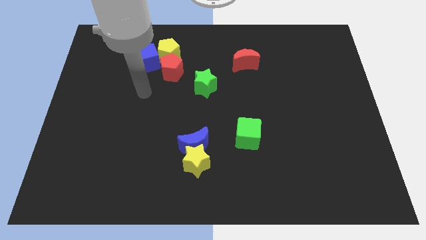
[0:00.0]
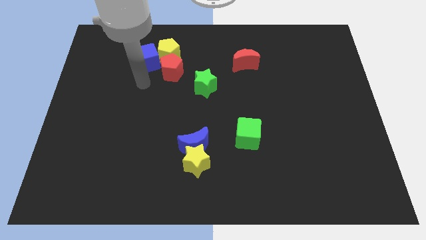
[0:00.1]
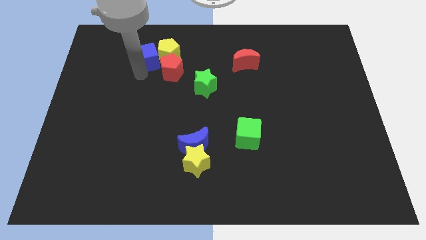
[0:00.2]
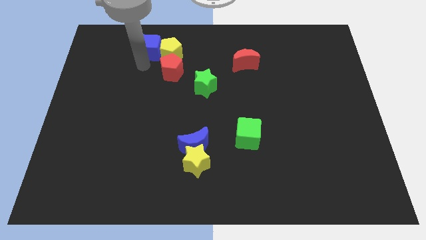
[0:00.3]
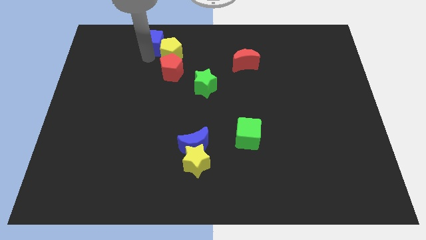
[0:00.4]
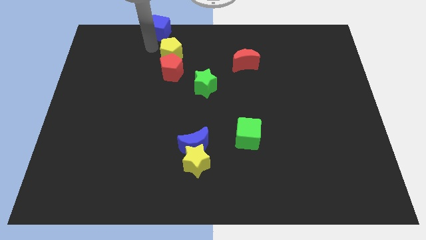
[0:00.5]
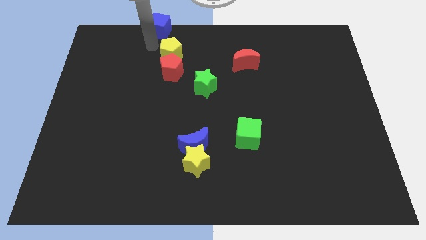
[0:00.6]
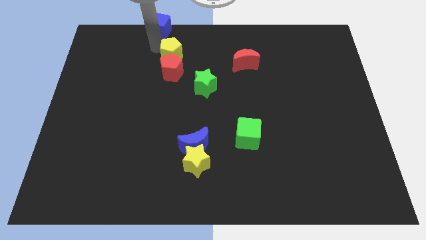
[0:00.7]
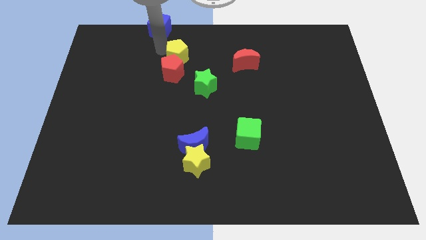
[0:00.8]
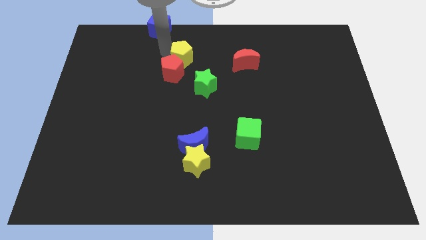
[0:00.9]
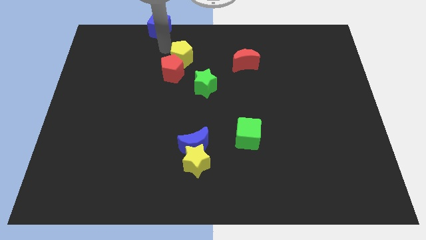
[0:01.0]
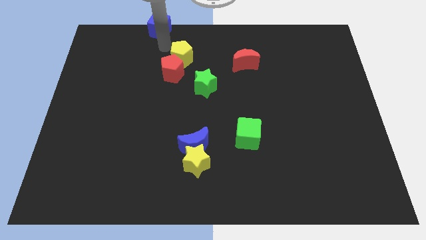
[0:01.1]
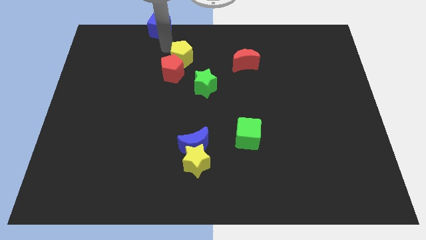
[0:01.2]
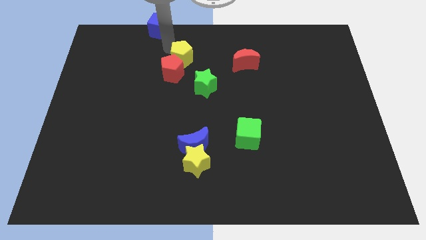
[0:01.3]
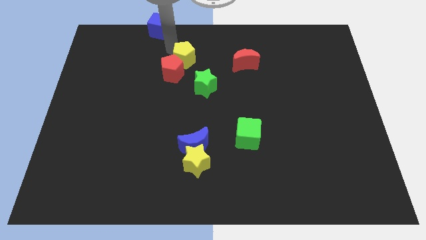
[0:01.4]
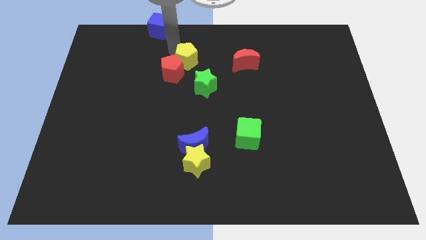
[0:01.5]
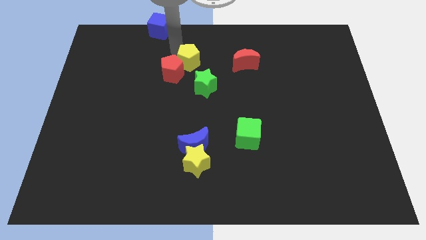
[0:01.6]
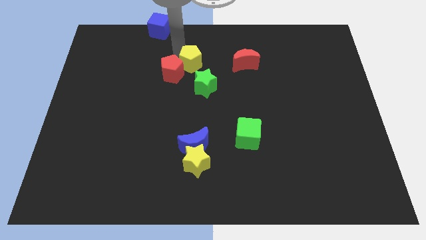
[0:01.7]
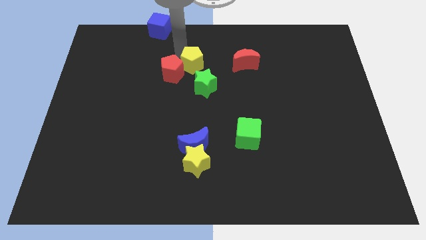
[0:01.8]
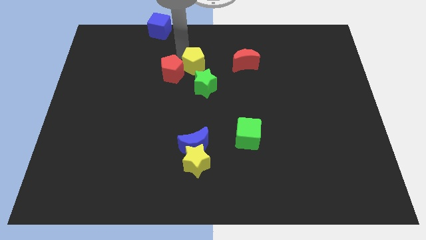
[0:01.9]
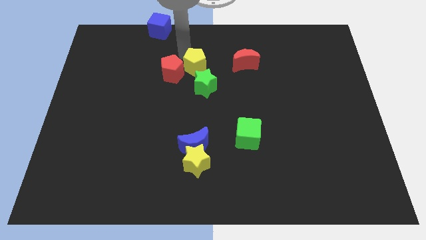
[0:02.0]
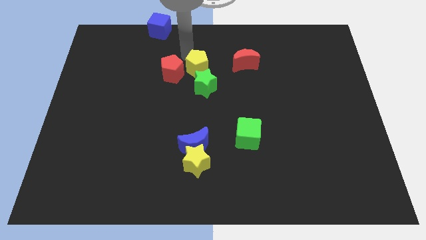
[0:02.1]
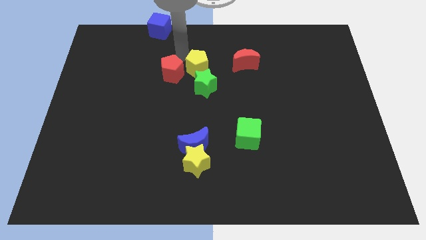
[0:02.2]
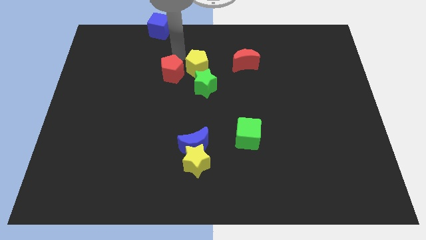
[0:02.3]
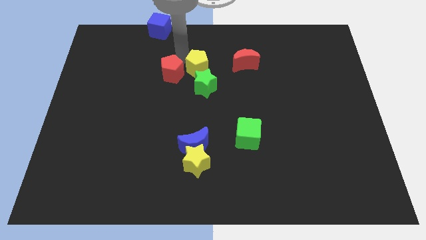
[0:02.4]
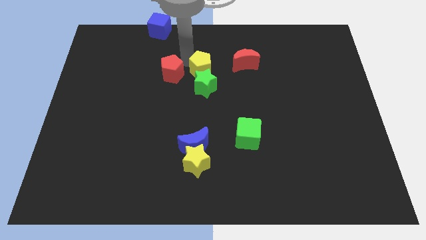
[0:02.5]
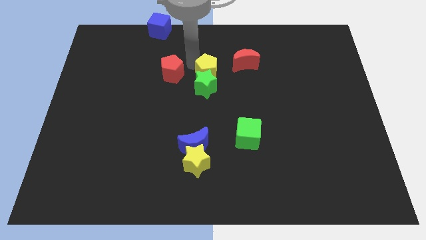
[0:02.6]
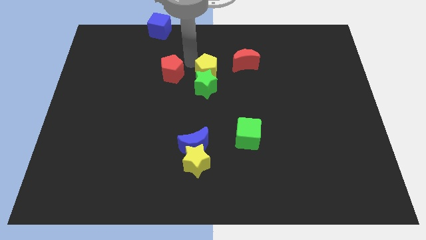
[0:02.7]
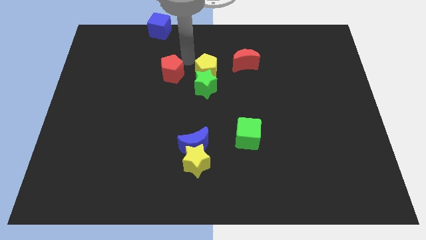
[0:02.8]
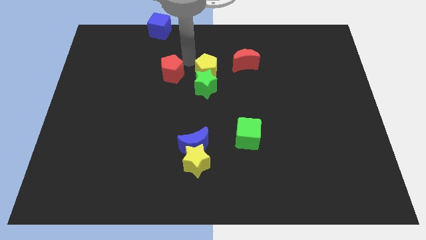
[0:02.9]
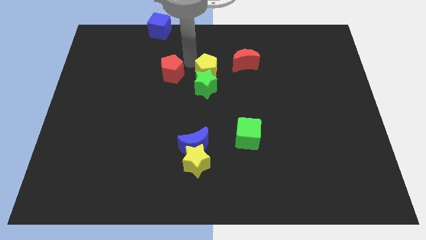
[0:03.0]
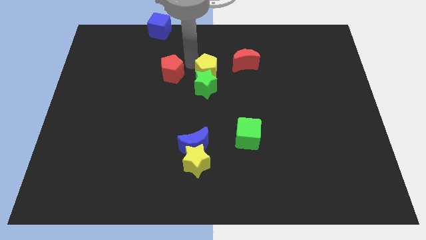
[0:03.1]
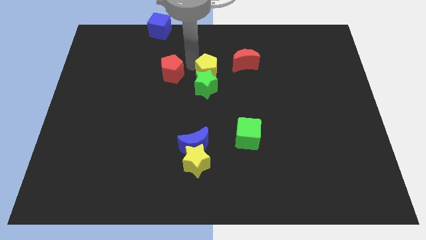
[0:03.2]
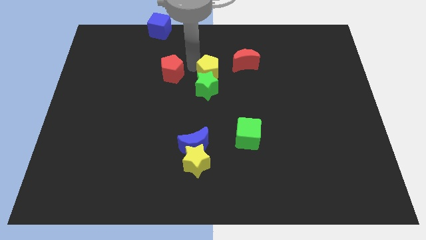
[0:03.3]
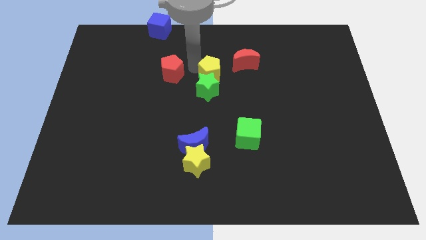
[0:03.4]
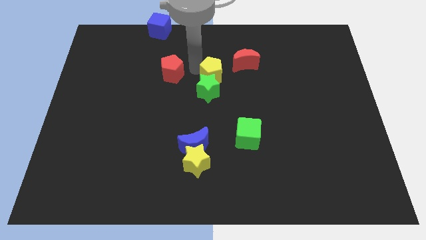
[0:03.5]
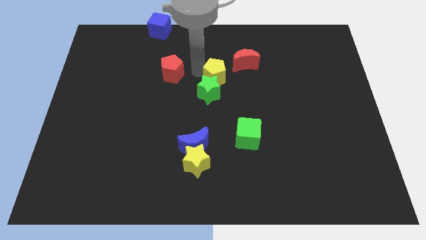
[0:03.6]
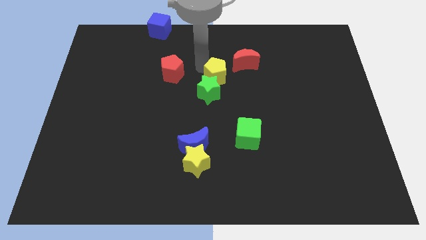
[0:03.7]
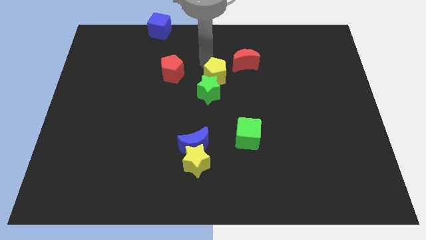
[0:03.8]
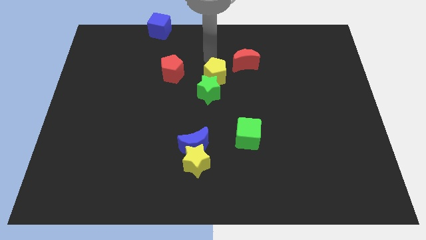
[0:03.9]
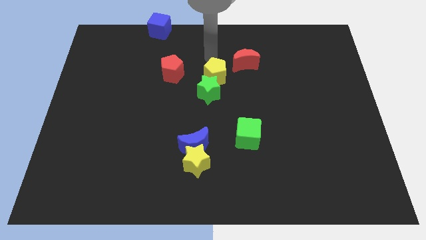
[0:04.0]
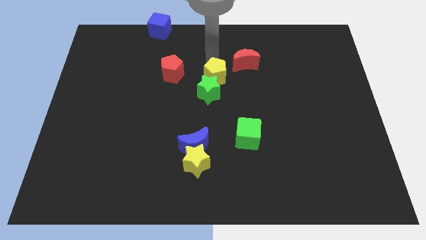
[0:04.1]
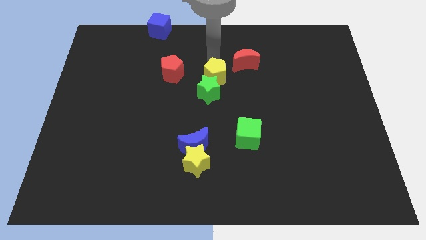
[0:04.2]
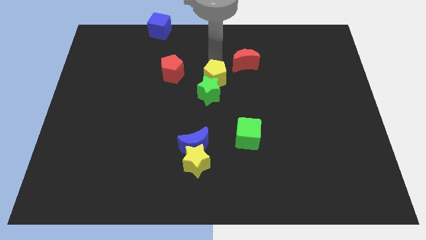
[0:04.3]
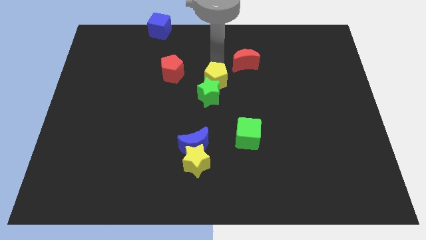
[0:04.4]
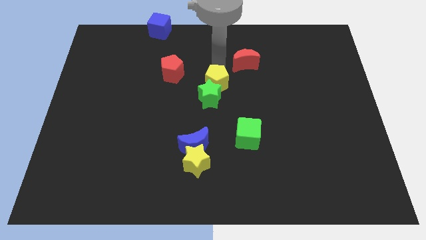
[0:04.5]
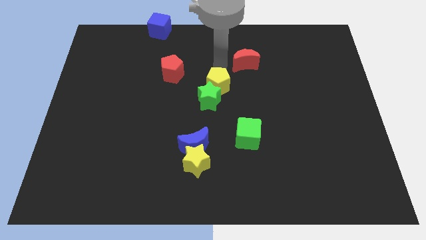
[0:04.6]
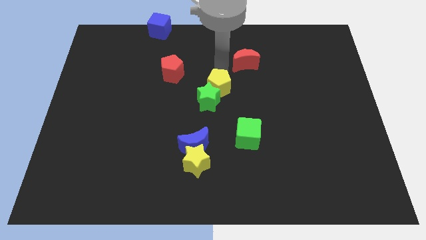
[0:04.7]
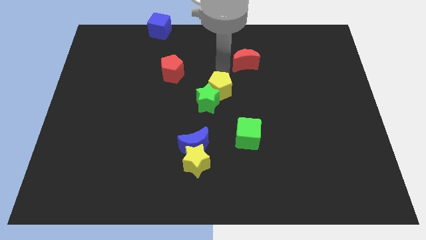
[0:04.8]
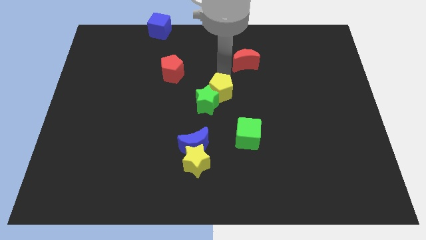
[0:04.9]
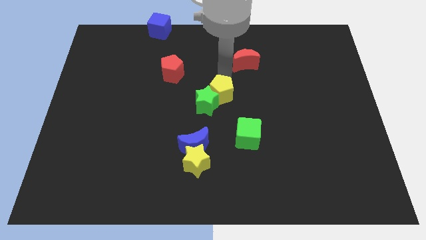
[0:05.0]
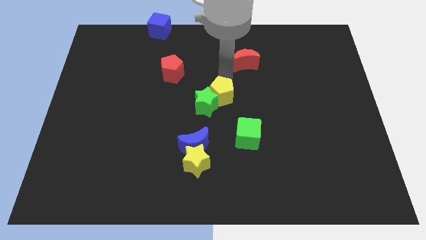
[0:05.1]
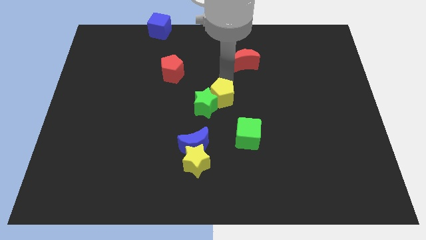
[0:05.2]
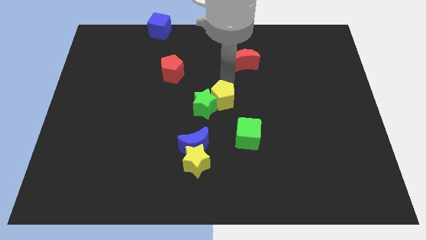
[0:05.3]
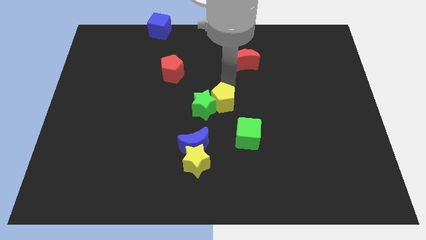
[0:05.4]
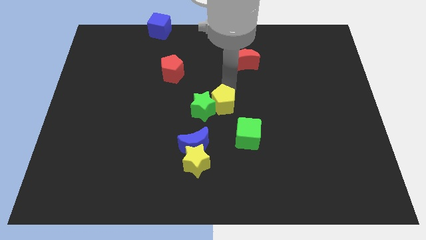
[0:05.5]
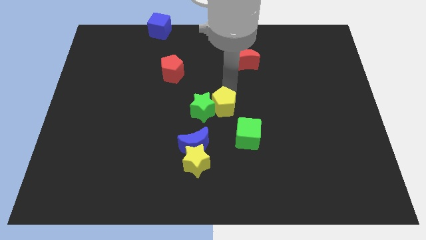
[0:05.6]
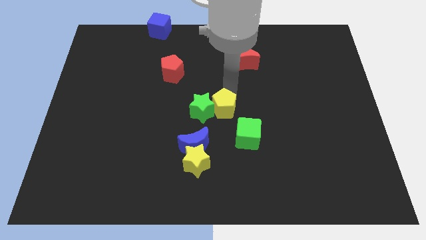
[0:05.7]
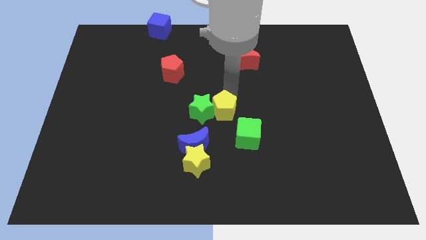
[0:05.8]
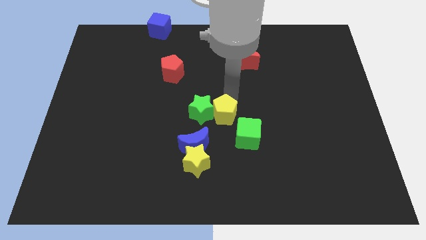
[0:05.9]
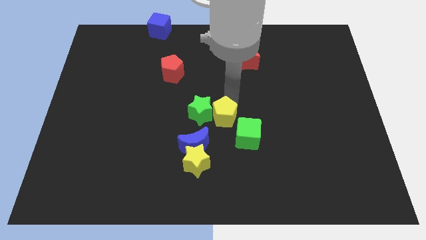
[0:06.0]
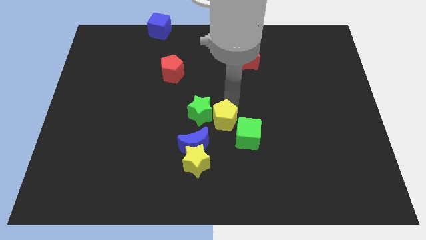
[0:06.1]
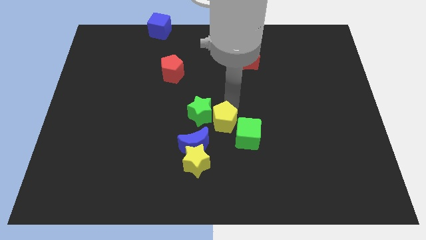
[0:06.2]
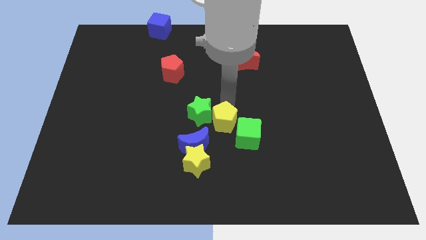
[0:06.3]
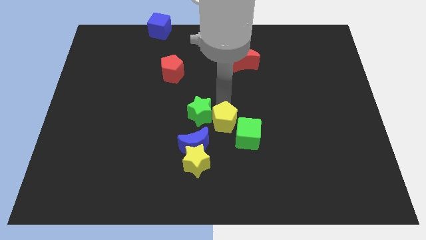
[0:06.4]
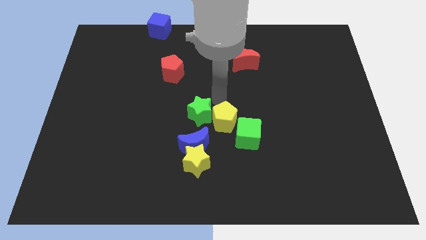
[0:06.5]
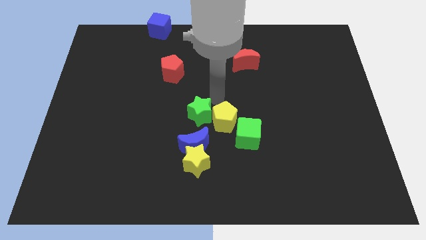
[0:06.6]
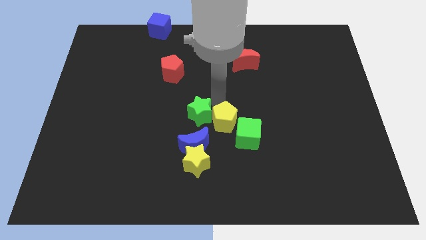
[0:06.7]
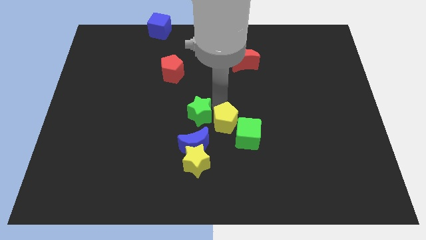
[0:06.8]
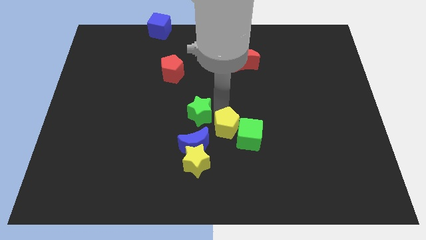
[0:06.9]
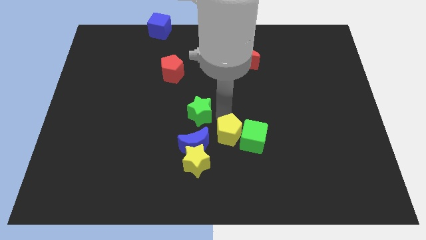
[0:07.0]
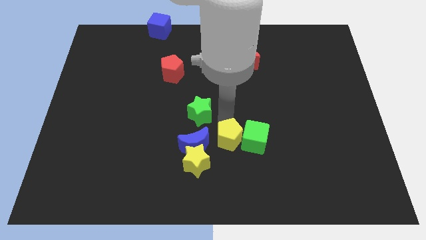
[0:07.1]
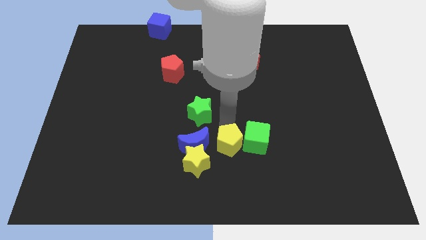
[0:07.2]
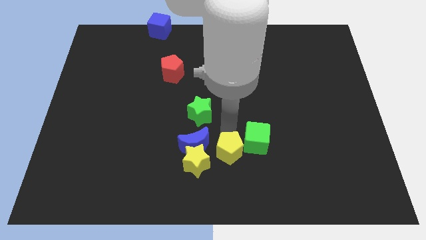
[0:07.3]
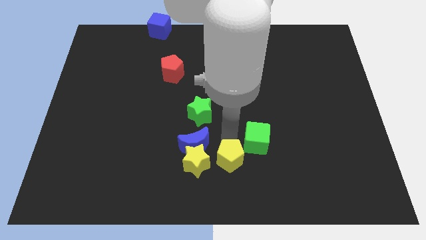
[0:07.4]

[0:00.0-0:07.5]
push the yellow pentagon to the bottom
